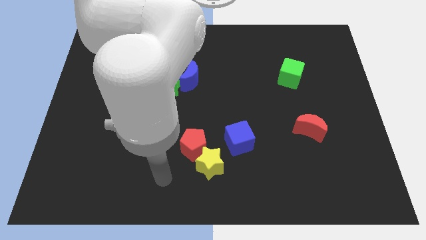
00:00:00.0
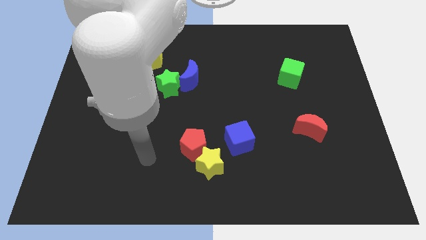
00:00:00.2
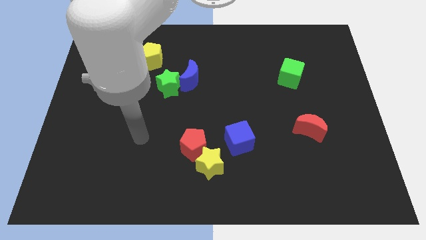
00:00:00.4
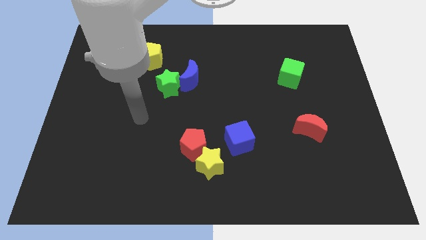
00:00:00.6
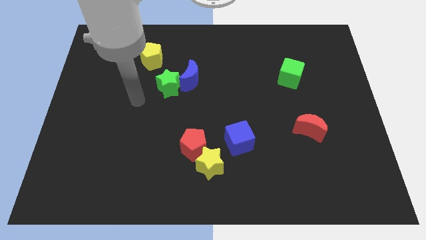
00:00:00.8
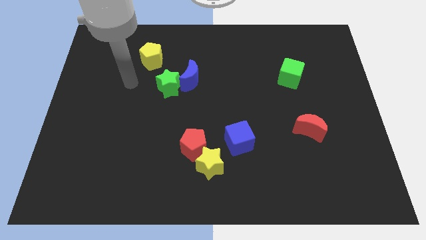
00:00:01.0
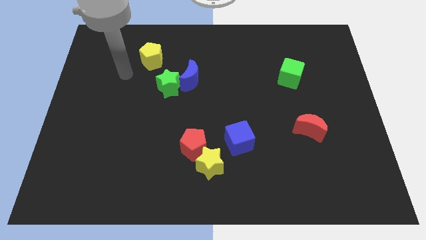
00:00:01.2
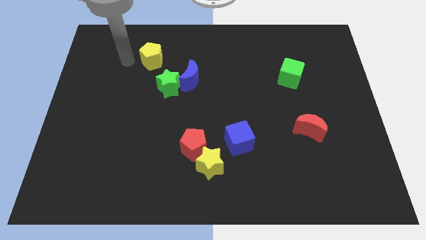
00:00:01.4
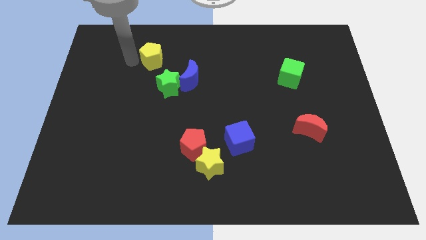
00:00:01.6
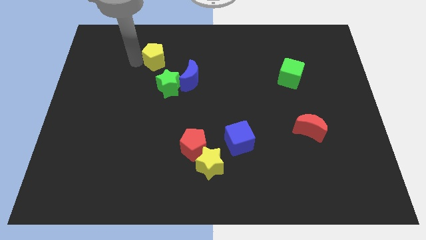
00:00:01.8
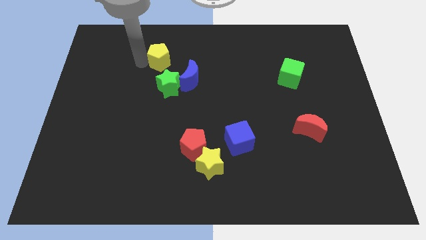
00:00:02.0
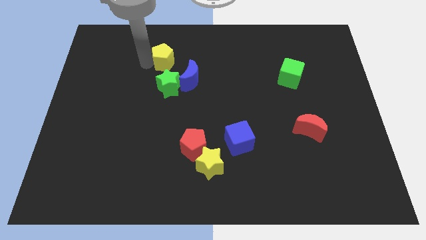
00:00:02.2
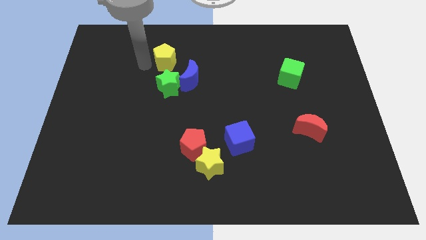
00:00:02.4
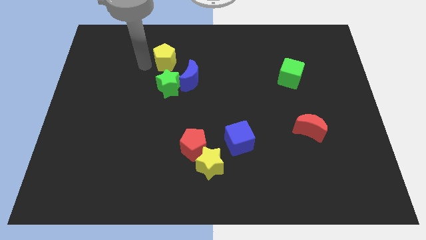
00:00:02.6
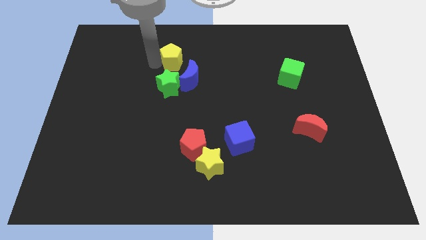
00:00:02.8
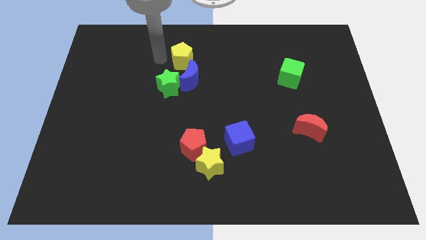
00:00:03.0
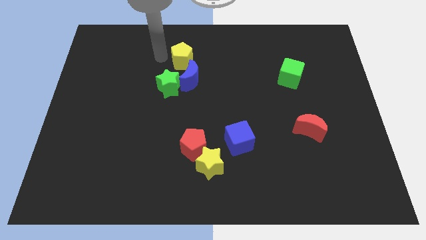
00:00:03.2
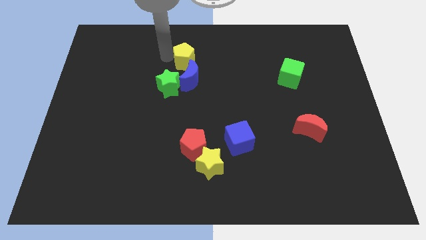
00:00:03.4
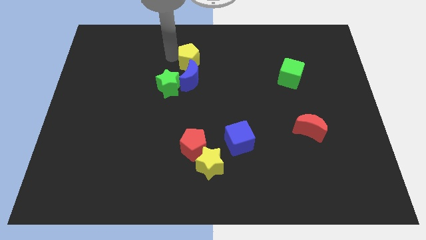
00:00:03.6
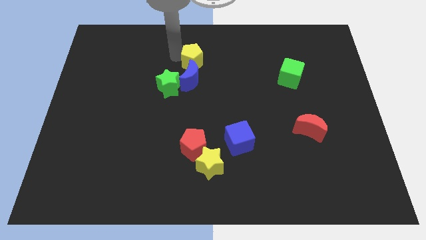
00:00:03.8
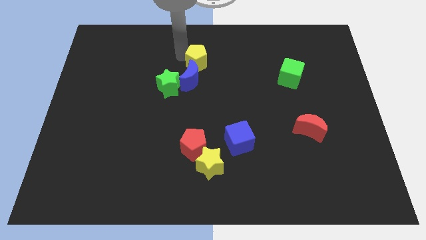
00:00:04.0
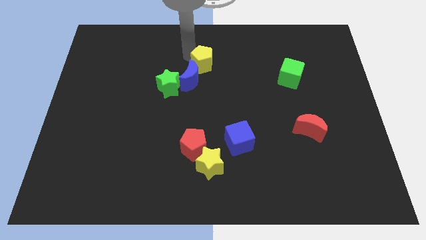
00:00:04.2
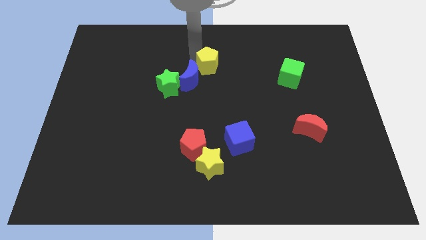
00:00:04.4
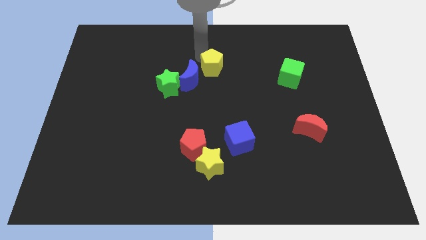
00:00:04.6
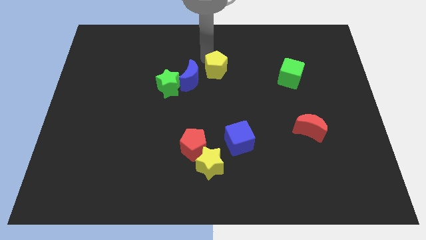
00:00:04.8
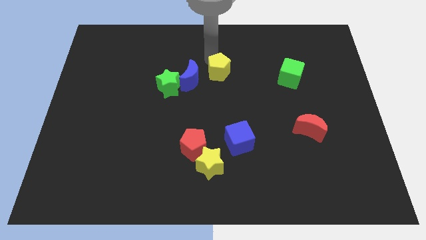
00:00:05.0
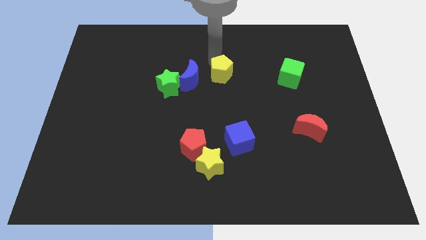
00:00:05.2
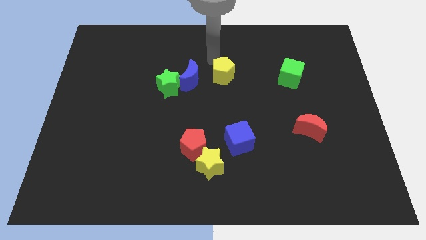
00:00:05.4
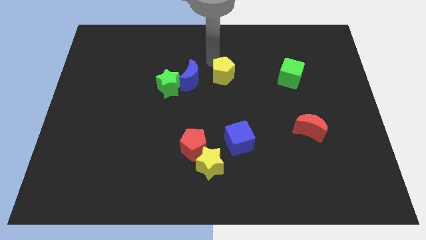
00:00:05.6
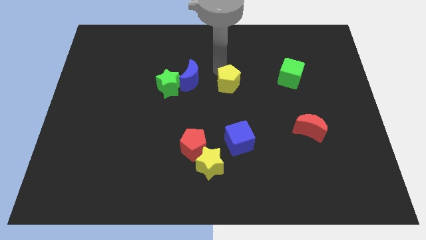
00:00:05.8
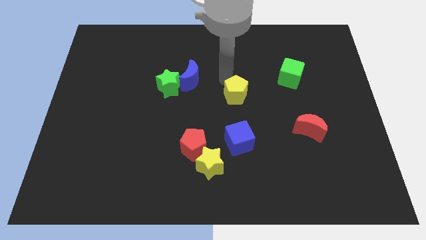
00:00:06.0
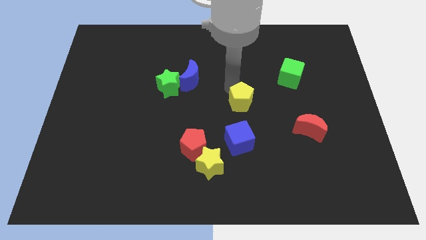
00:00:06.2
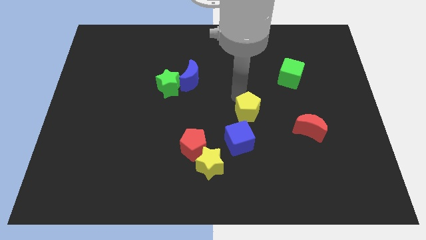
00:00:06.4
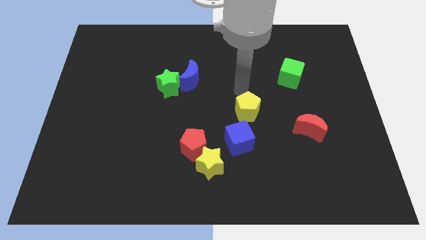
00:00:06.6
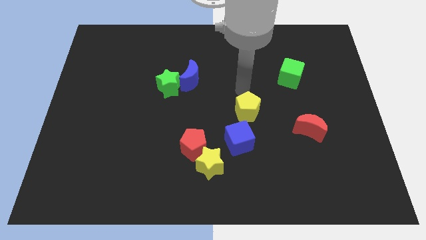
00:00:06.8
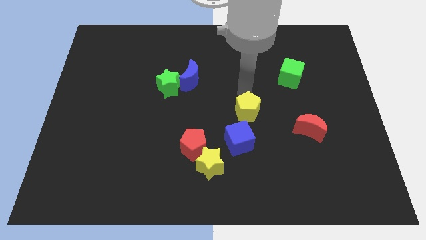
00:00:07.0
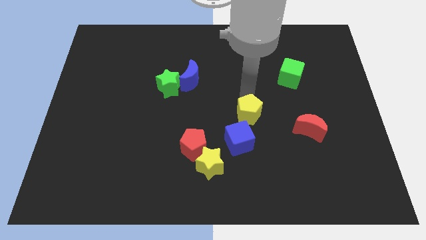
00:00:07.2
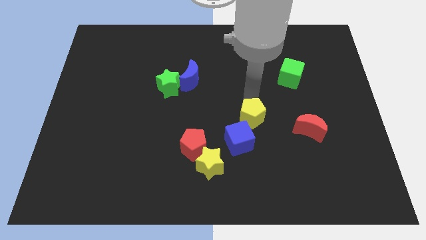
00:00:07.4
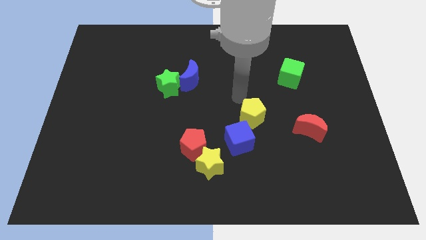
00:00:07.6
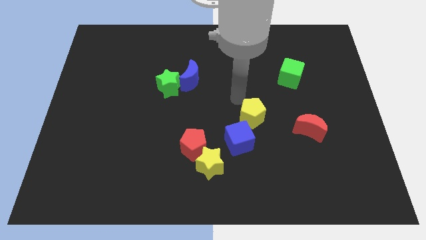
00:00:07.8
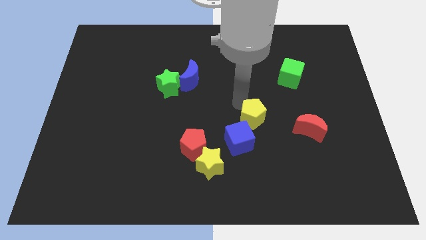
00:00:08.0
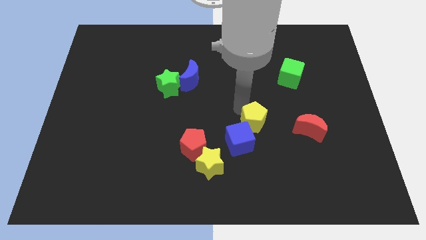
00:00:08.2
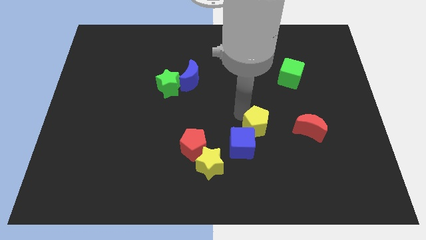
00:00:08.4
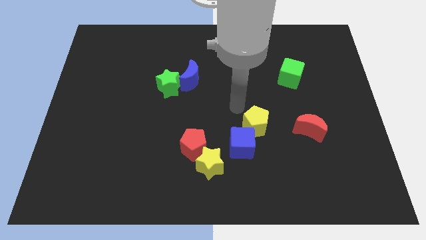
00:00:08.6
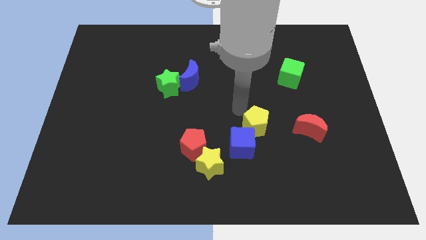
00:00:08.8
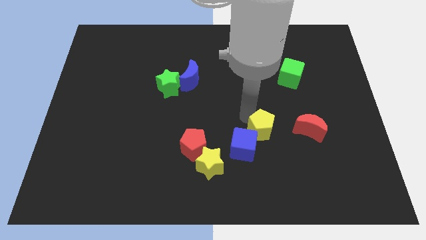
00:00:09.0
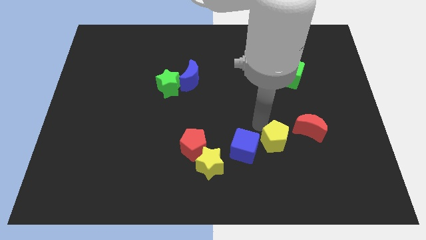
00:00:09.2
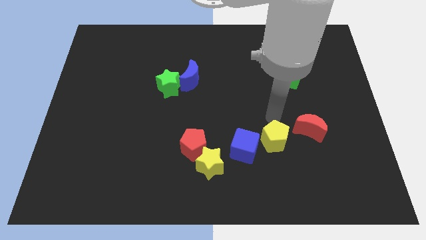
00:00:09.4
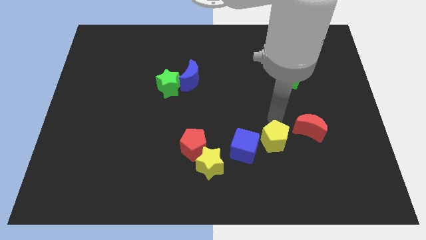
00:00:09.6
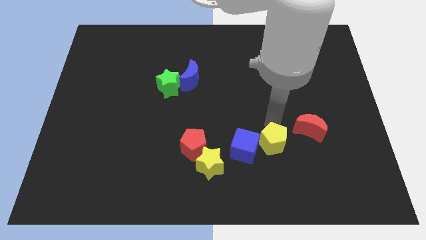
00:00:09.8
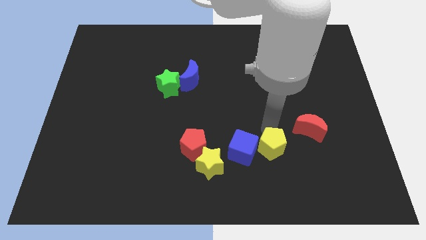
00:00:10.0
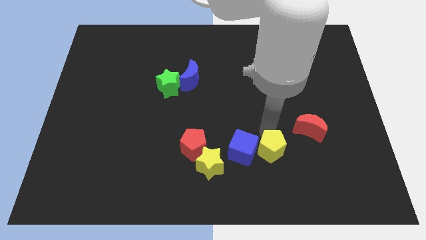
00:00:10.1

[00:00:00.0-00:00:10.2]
slide the yellow pentagon to the bottom right side of the blue cube

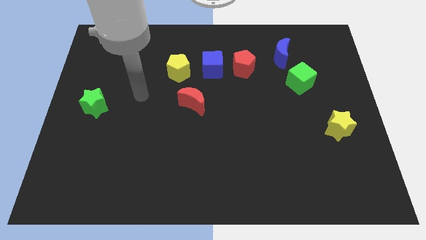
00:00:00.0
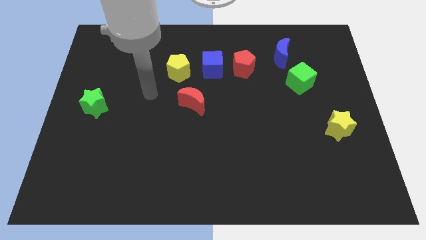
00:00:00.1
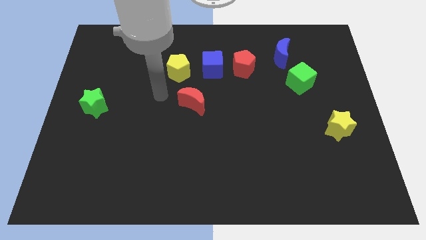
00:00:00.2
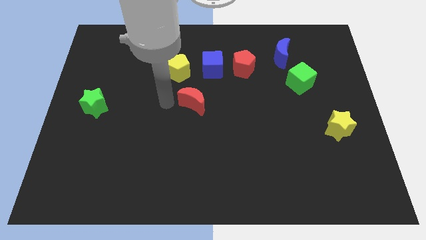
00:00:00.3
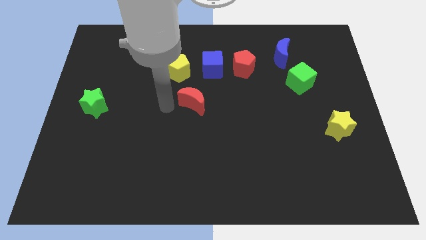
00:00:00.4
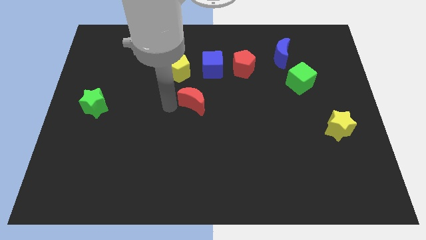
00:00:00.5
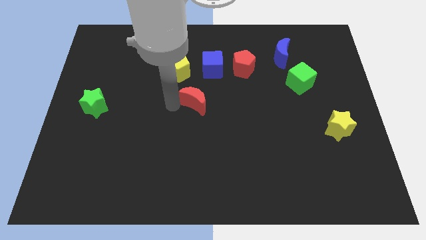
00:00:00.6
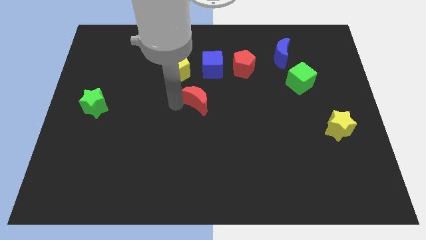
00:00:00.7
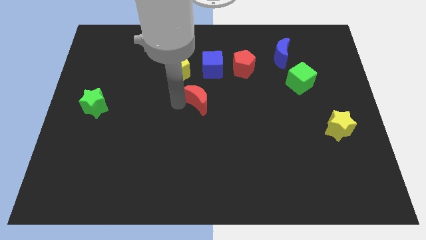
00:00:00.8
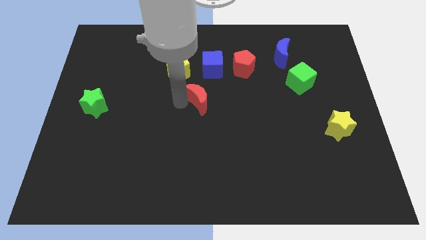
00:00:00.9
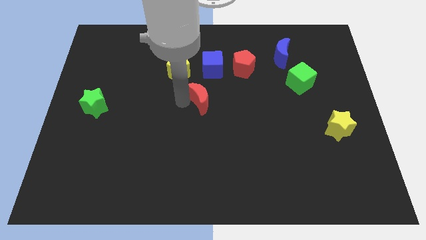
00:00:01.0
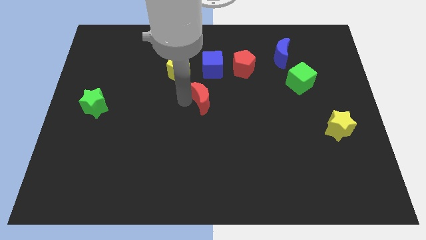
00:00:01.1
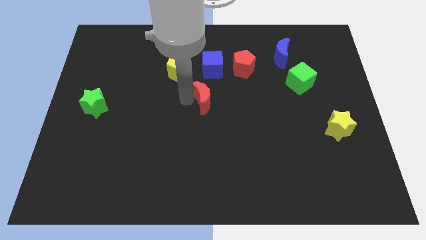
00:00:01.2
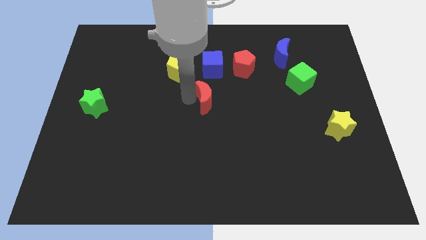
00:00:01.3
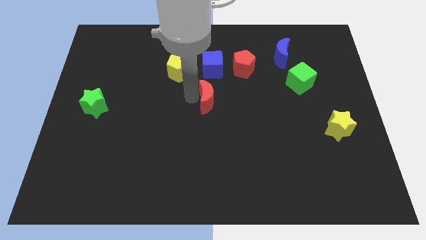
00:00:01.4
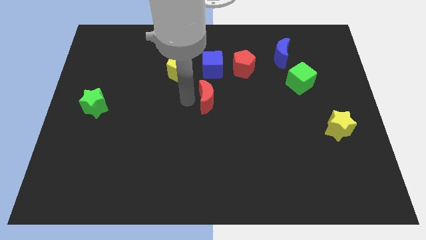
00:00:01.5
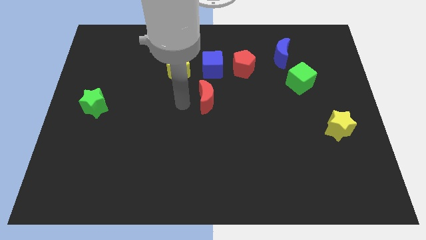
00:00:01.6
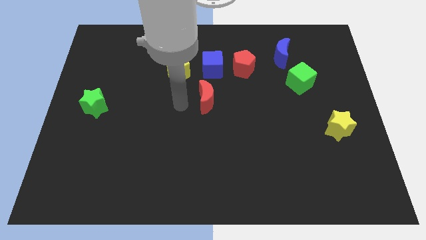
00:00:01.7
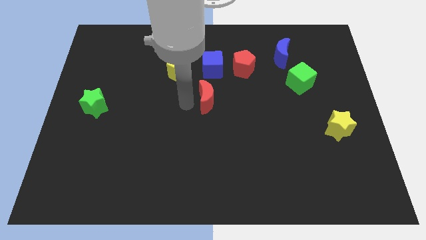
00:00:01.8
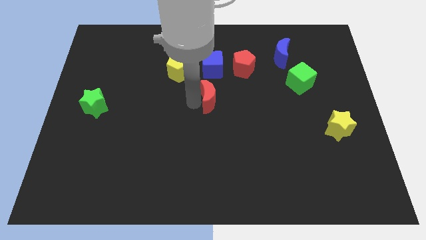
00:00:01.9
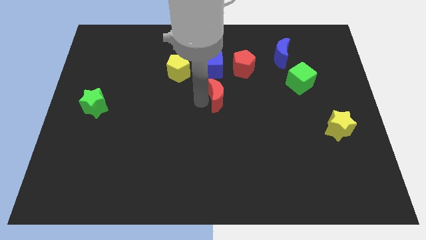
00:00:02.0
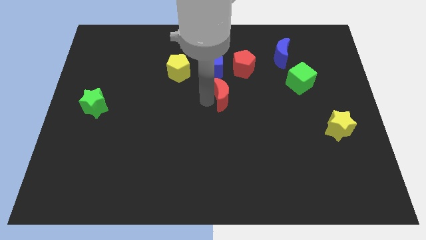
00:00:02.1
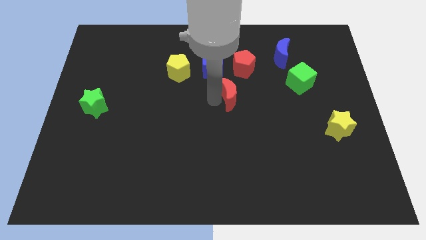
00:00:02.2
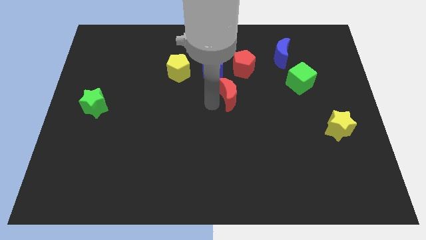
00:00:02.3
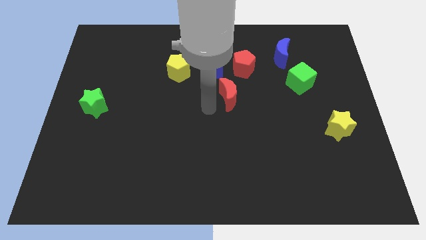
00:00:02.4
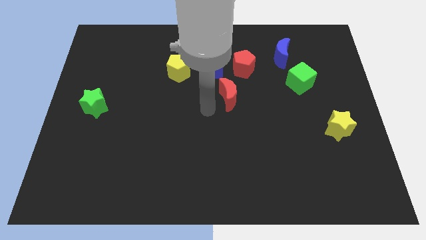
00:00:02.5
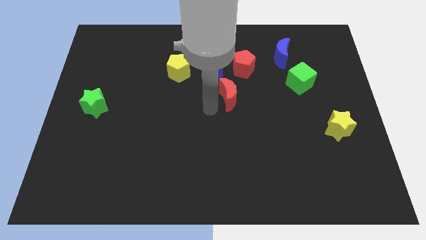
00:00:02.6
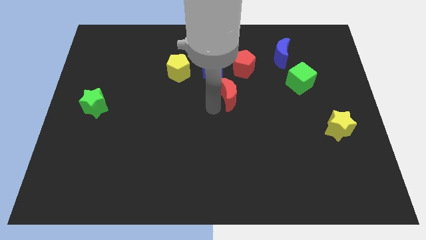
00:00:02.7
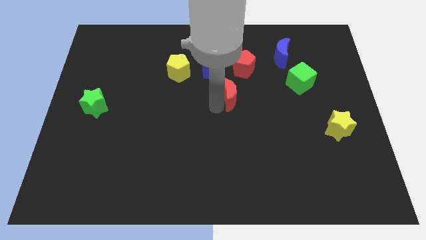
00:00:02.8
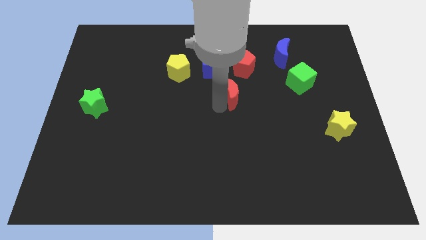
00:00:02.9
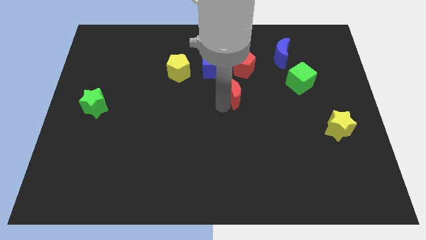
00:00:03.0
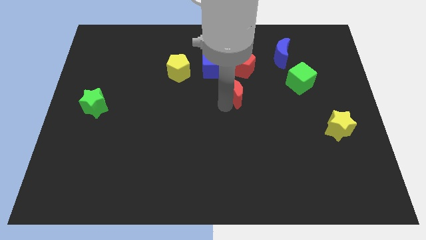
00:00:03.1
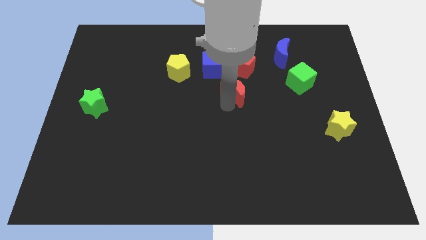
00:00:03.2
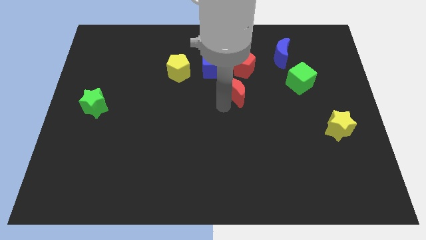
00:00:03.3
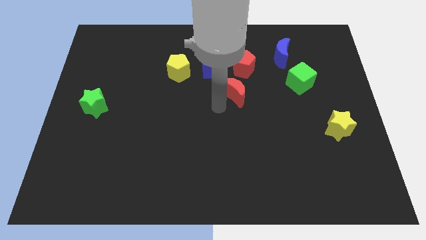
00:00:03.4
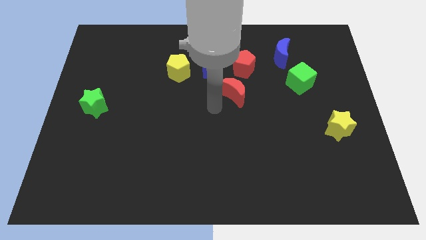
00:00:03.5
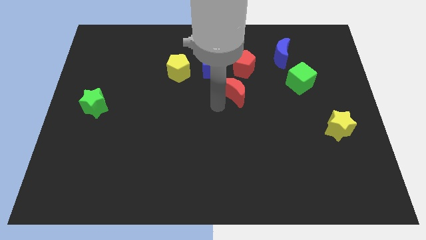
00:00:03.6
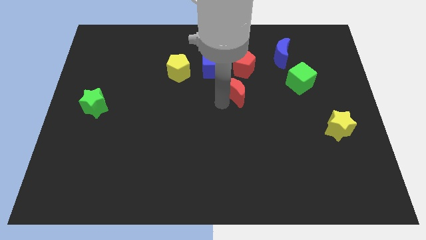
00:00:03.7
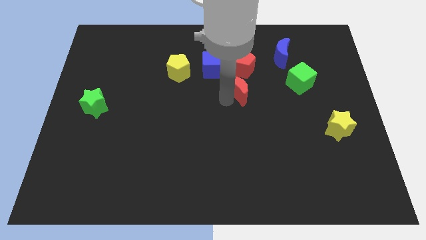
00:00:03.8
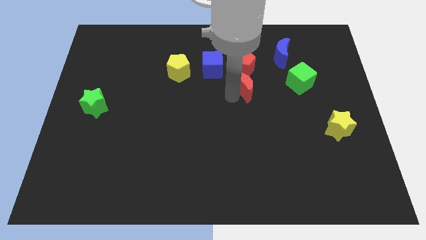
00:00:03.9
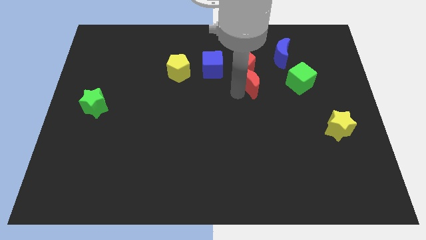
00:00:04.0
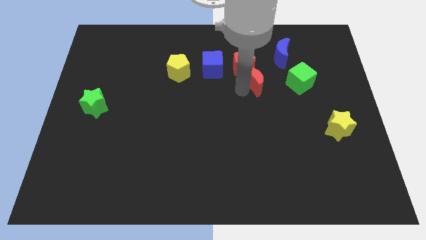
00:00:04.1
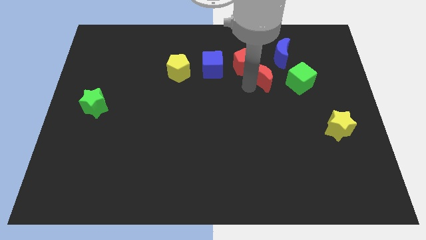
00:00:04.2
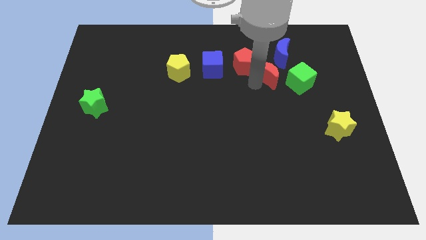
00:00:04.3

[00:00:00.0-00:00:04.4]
slide the red moon diagonally up and to the left of the green cube
